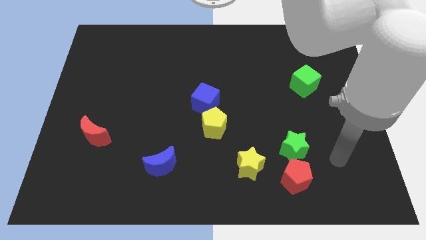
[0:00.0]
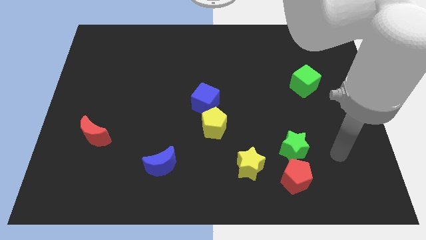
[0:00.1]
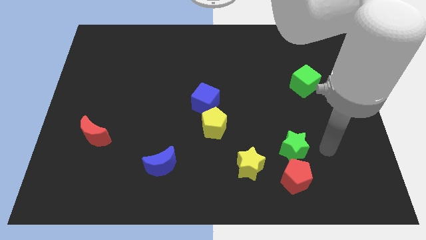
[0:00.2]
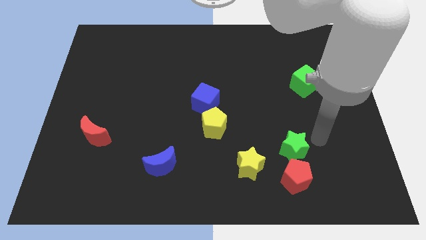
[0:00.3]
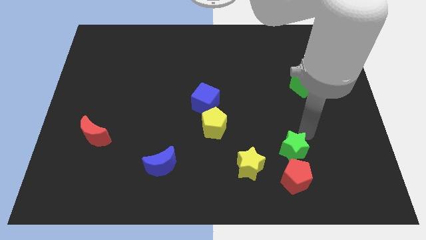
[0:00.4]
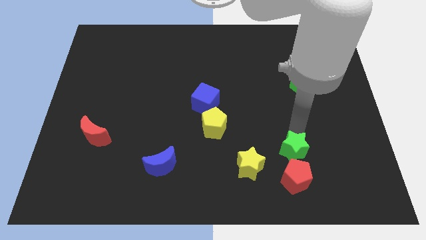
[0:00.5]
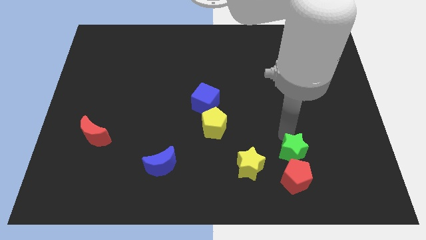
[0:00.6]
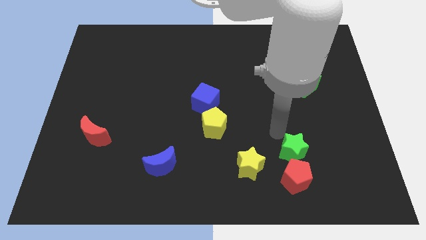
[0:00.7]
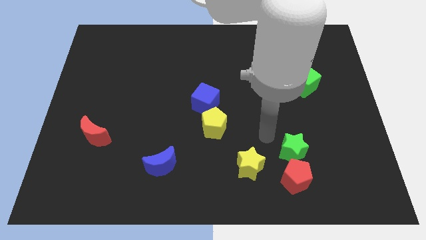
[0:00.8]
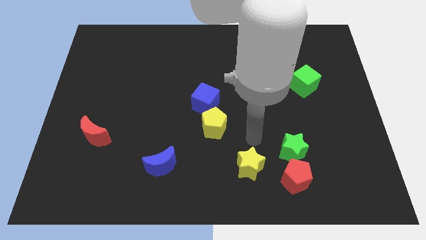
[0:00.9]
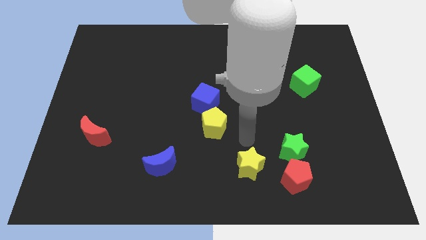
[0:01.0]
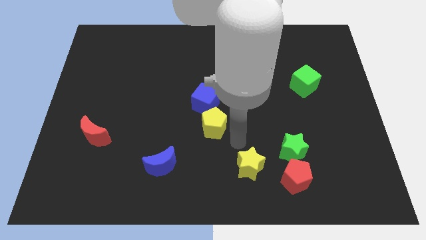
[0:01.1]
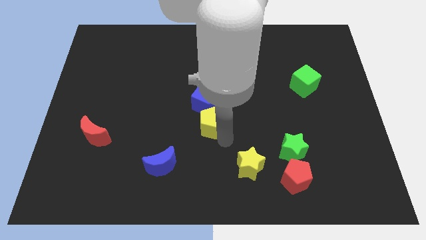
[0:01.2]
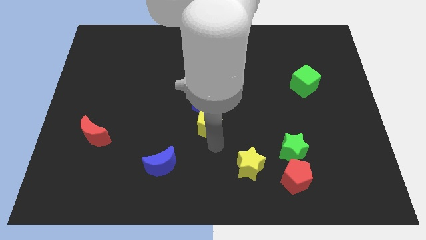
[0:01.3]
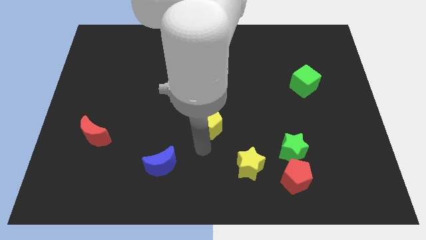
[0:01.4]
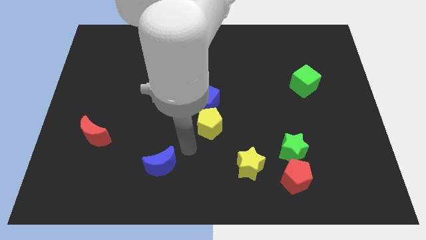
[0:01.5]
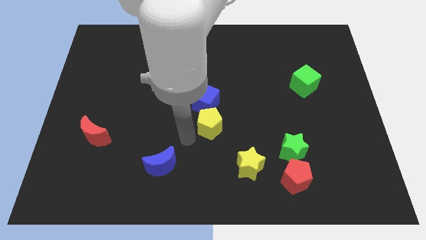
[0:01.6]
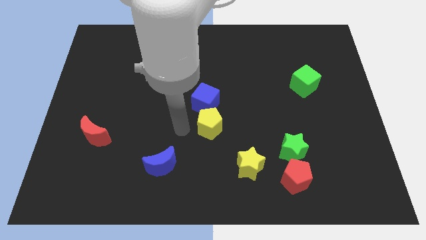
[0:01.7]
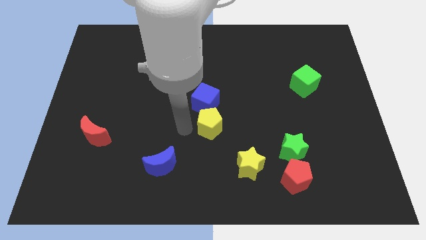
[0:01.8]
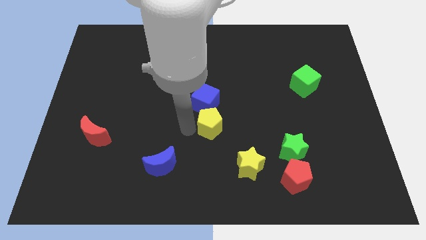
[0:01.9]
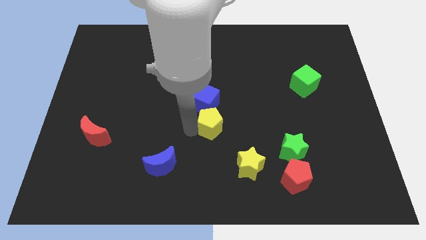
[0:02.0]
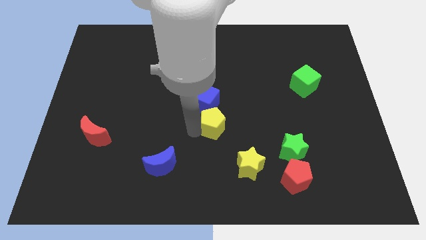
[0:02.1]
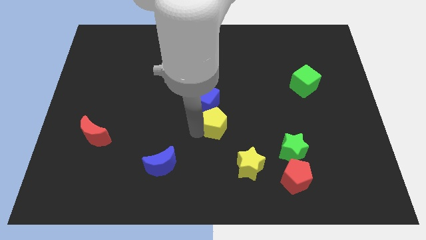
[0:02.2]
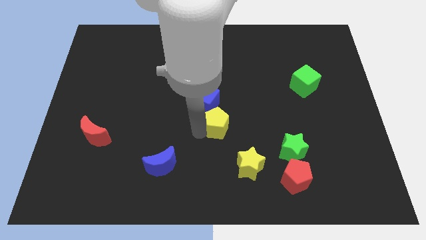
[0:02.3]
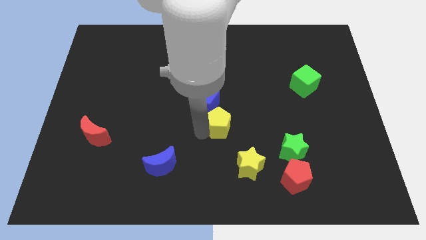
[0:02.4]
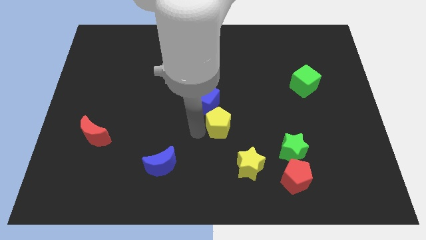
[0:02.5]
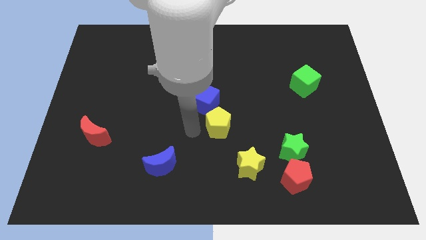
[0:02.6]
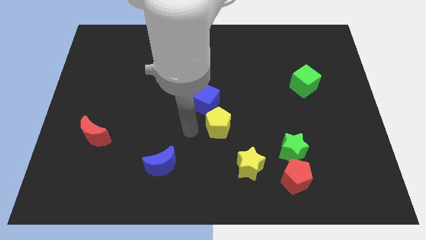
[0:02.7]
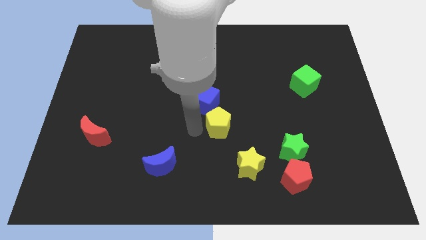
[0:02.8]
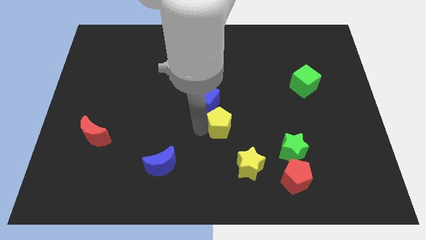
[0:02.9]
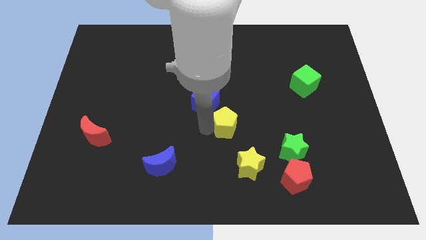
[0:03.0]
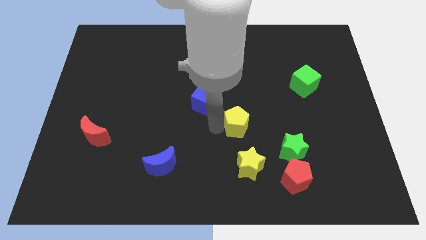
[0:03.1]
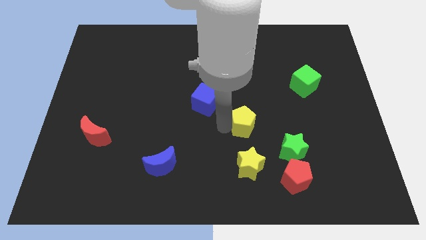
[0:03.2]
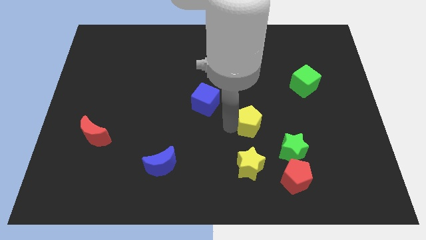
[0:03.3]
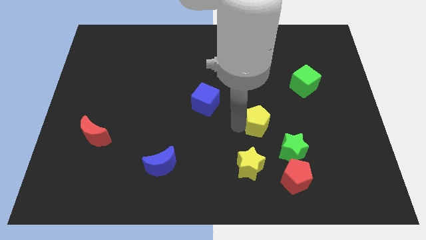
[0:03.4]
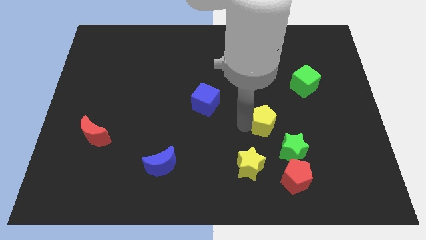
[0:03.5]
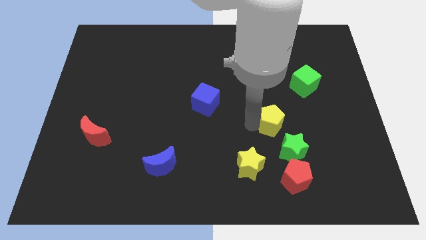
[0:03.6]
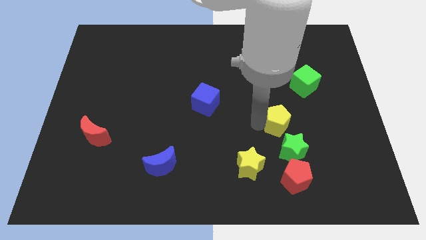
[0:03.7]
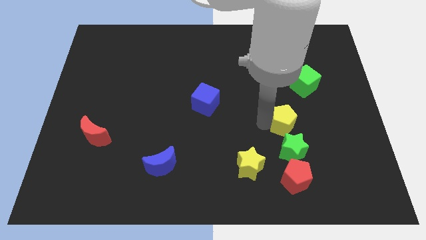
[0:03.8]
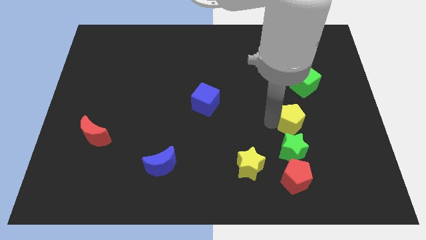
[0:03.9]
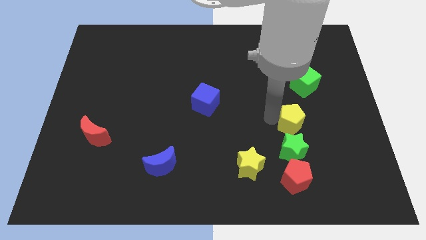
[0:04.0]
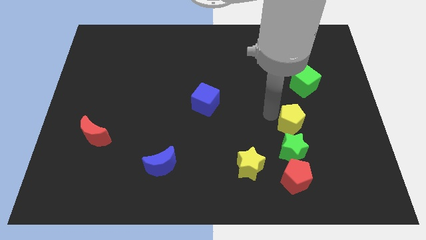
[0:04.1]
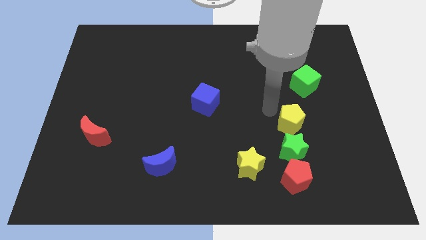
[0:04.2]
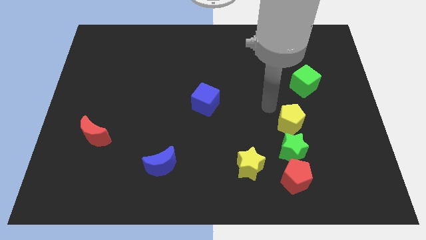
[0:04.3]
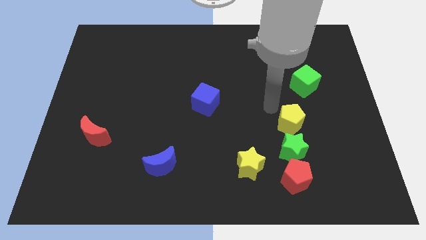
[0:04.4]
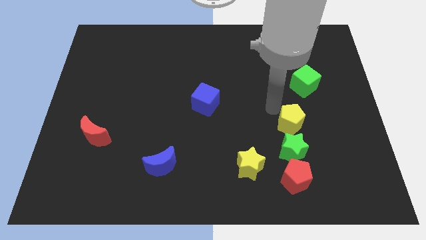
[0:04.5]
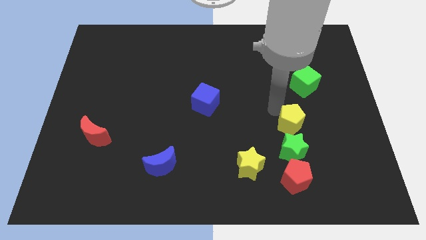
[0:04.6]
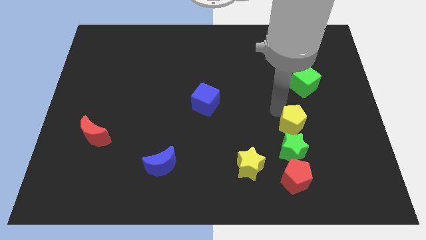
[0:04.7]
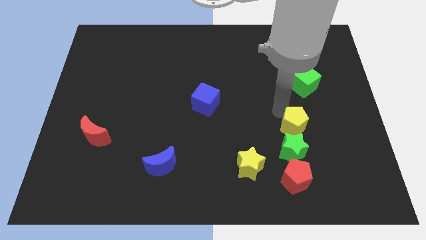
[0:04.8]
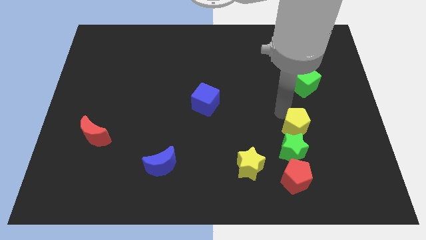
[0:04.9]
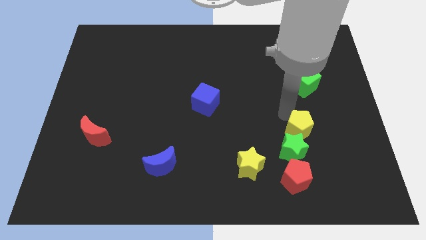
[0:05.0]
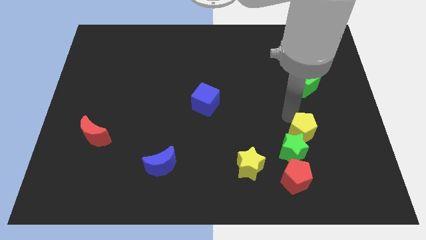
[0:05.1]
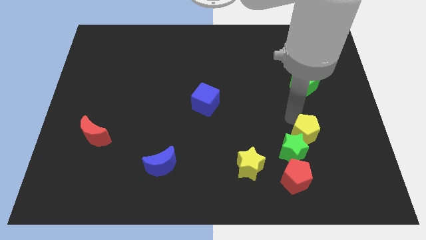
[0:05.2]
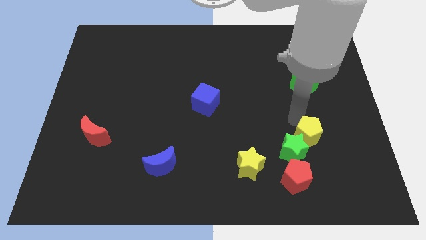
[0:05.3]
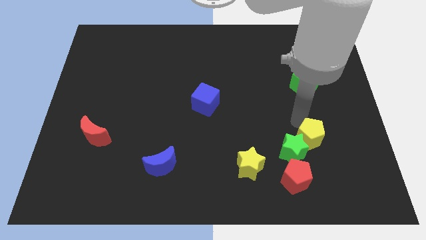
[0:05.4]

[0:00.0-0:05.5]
put the yellow pentagon diagonally up and to the right of the red pentagon

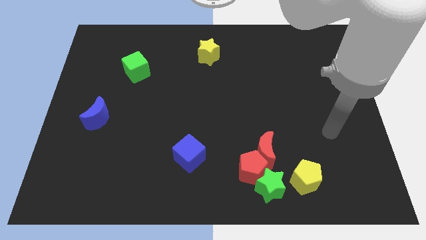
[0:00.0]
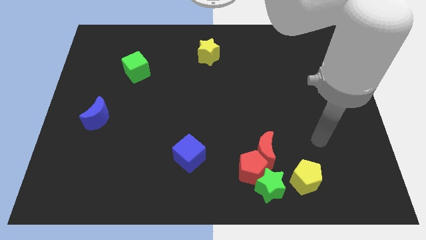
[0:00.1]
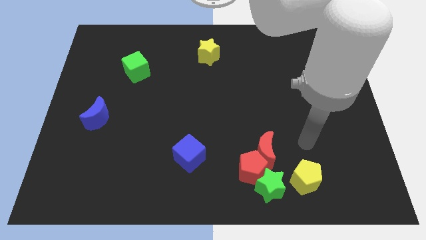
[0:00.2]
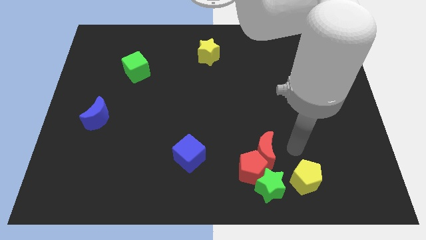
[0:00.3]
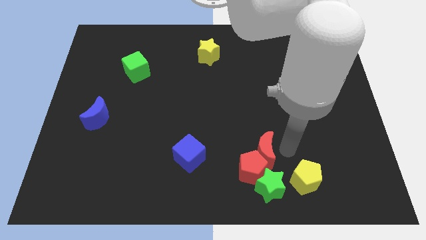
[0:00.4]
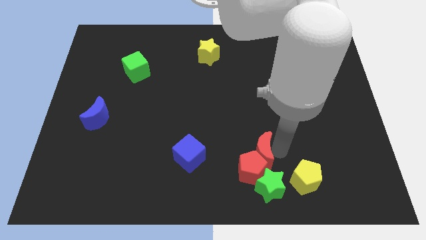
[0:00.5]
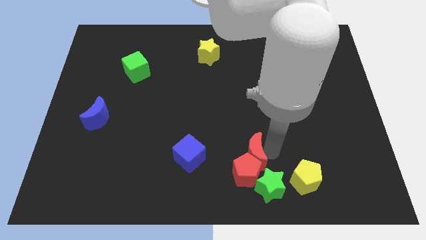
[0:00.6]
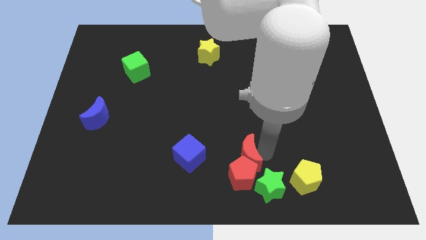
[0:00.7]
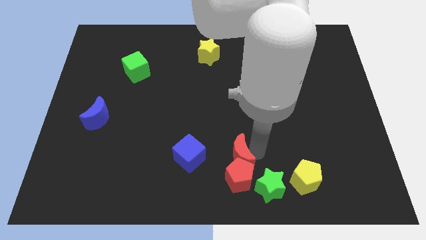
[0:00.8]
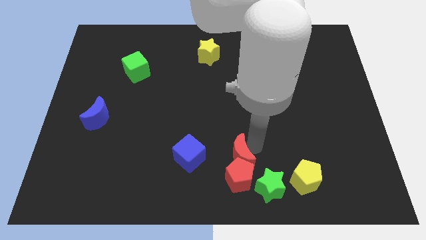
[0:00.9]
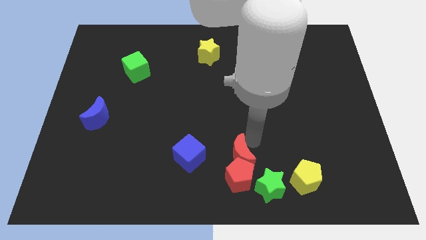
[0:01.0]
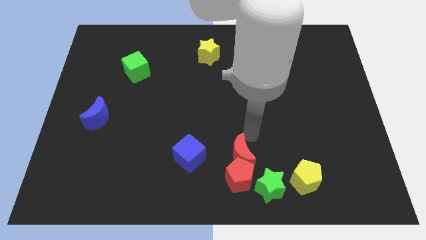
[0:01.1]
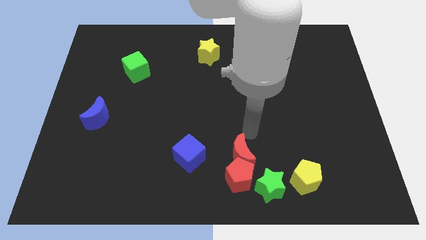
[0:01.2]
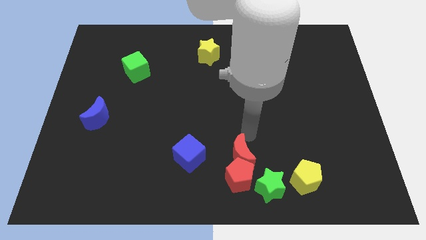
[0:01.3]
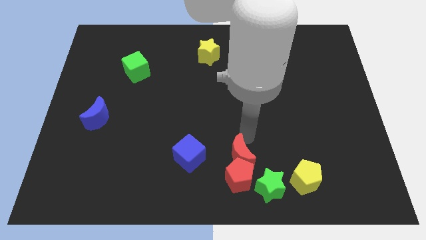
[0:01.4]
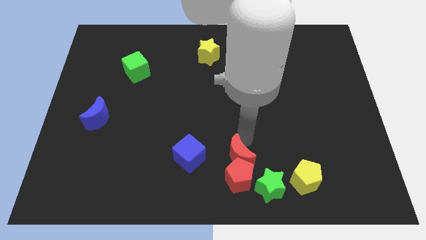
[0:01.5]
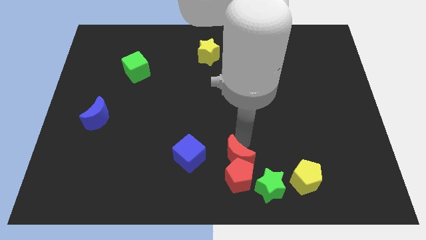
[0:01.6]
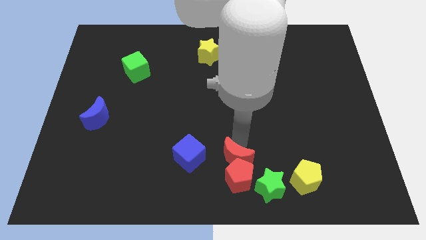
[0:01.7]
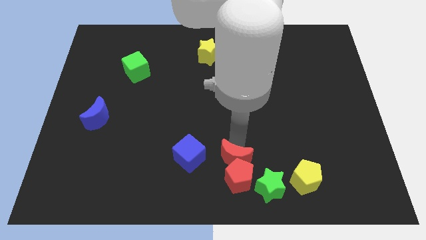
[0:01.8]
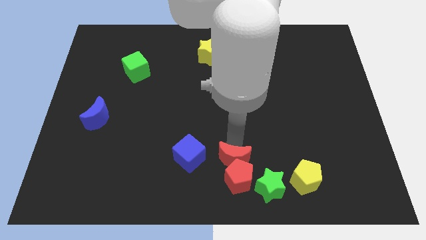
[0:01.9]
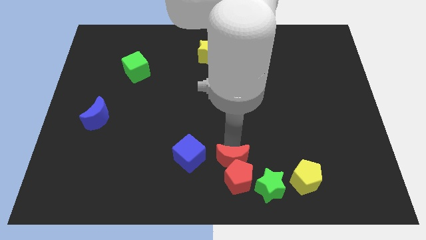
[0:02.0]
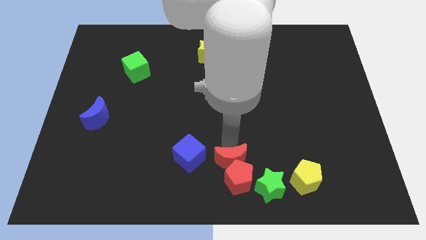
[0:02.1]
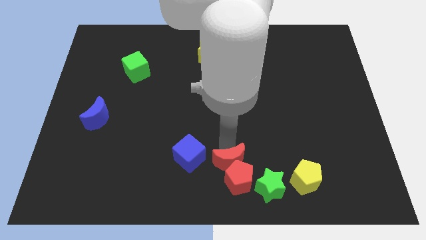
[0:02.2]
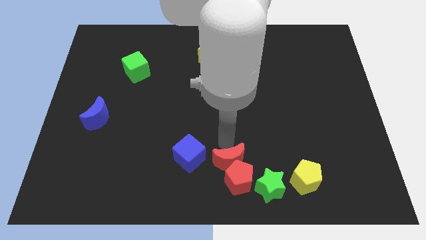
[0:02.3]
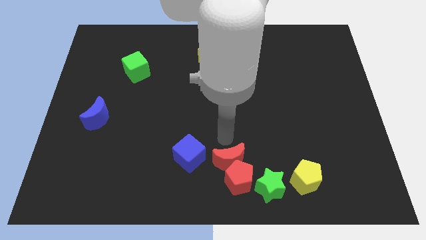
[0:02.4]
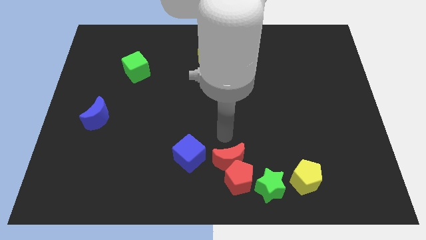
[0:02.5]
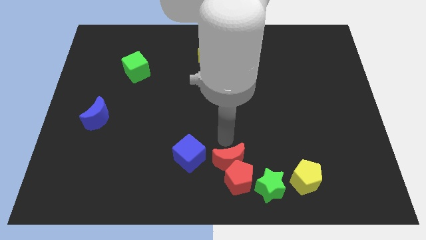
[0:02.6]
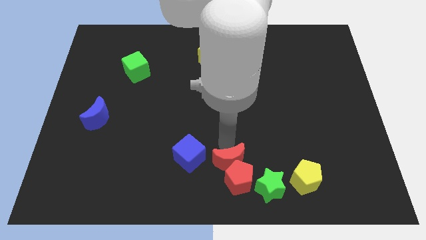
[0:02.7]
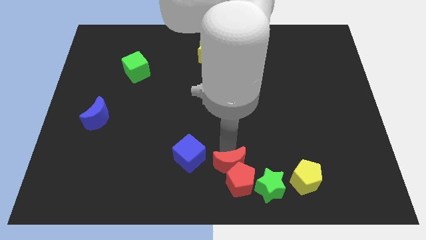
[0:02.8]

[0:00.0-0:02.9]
slide the red moon left of the yellow pentagon
